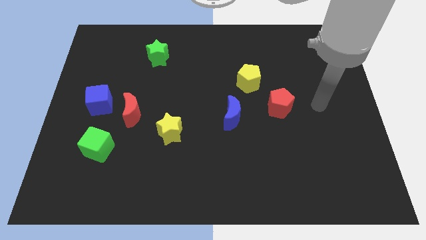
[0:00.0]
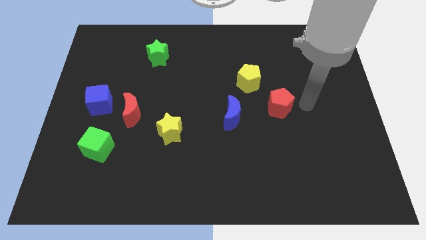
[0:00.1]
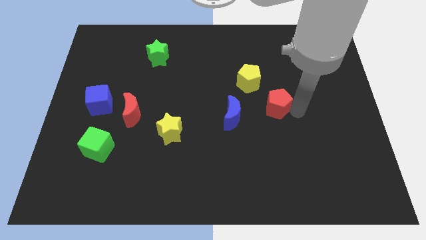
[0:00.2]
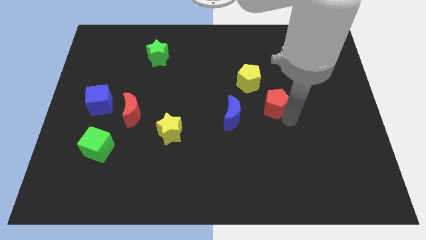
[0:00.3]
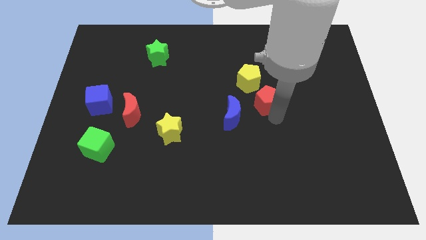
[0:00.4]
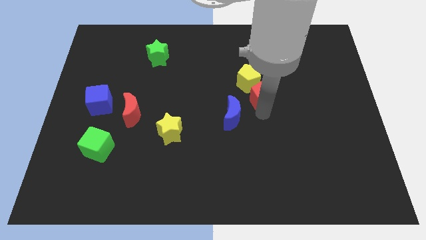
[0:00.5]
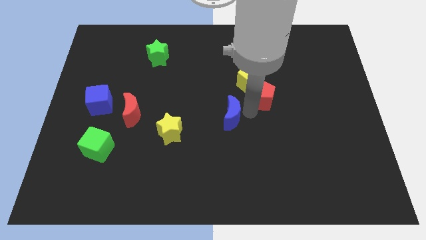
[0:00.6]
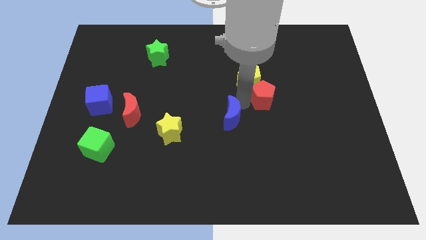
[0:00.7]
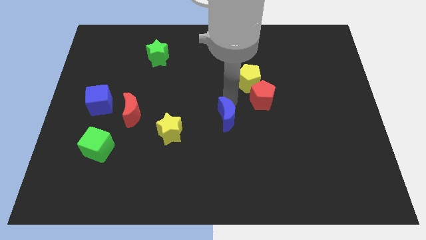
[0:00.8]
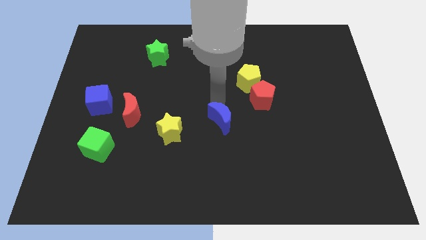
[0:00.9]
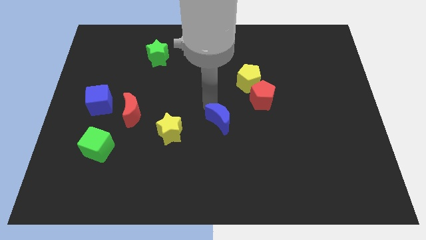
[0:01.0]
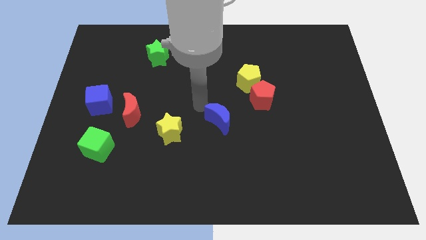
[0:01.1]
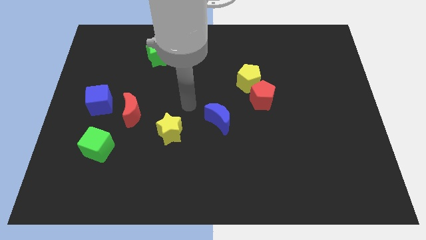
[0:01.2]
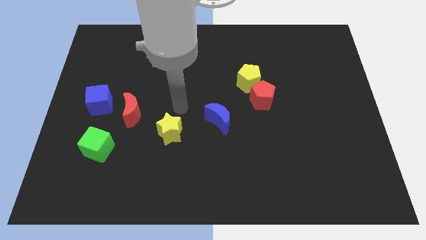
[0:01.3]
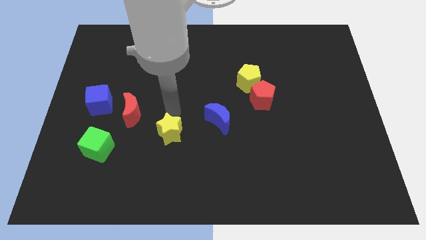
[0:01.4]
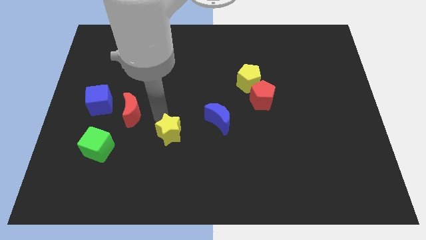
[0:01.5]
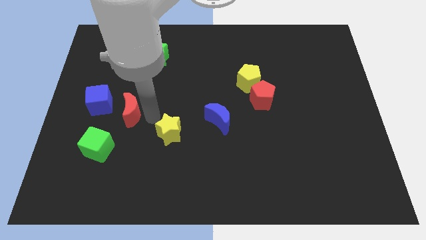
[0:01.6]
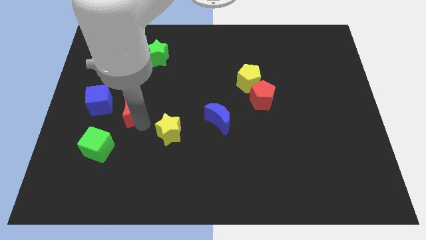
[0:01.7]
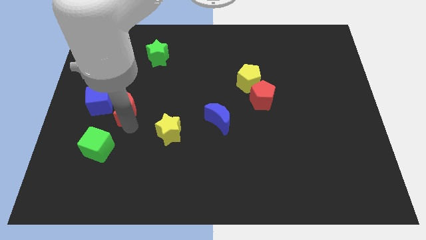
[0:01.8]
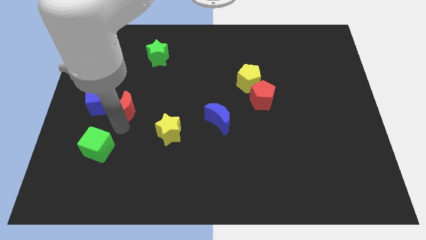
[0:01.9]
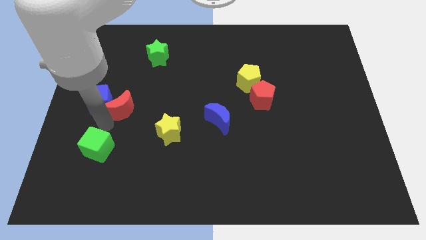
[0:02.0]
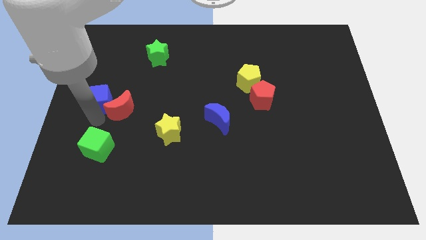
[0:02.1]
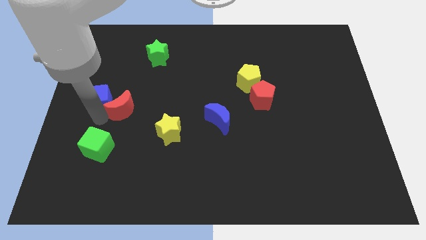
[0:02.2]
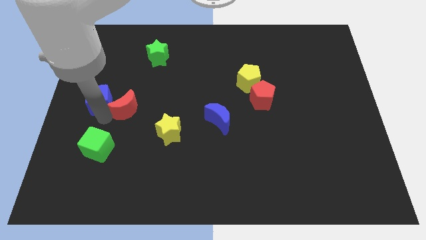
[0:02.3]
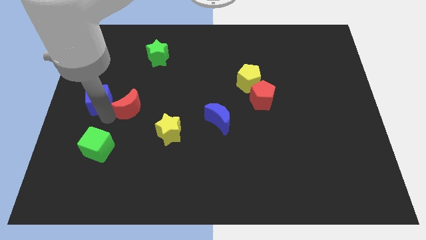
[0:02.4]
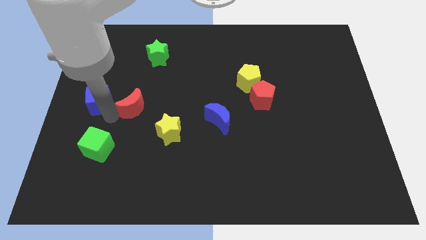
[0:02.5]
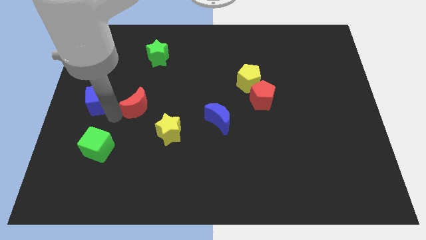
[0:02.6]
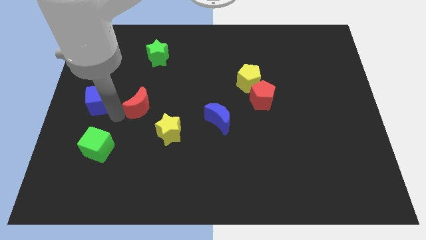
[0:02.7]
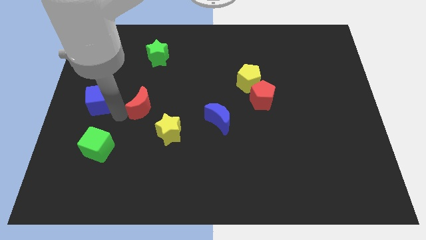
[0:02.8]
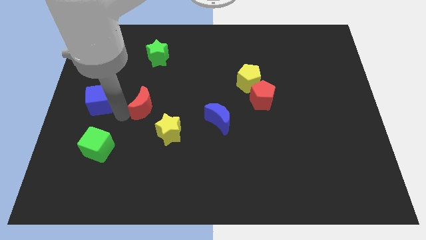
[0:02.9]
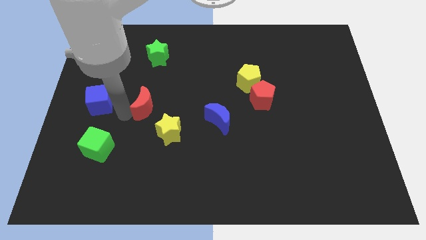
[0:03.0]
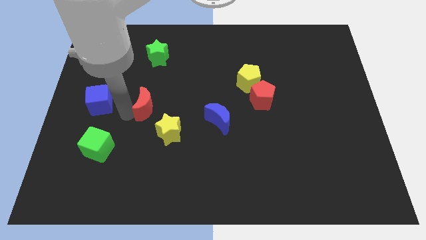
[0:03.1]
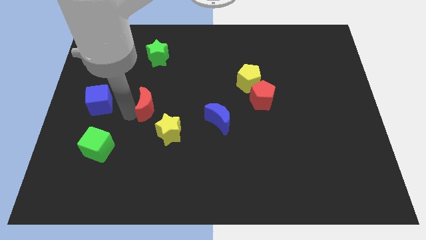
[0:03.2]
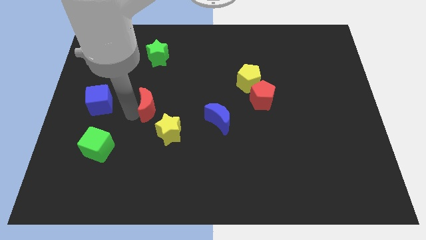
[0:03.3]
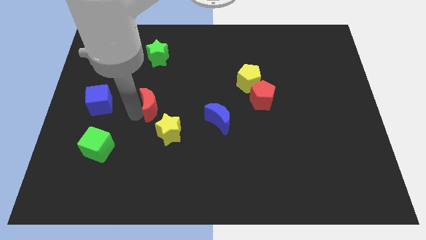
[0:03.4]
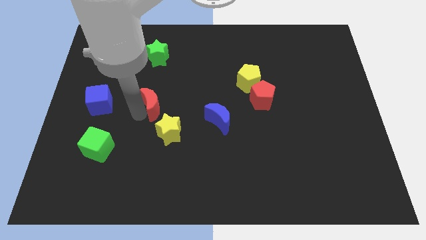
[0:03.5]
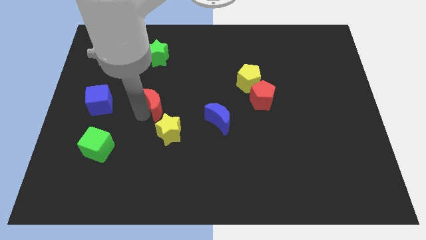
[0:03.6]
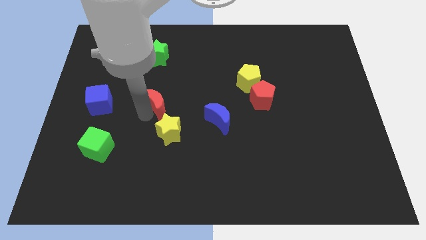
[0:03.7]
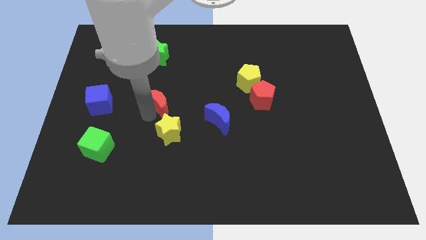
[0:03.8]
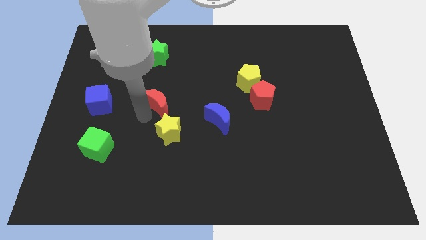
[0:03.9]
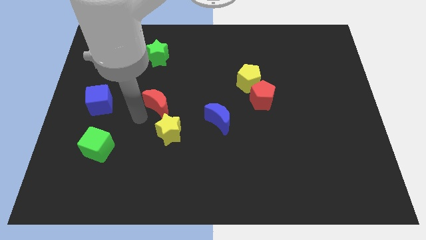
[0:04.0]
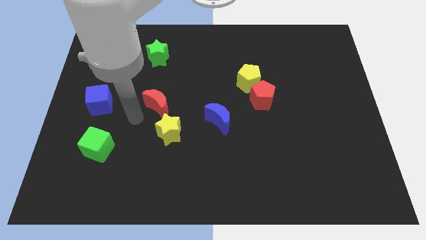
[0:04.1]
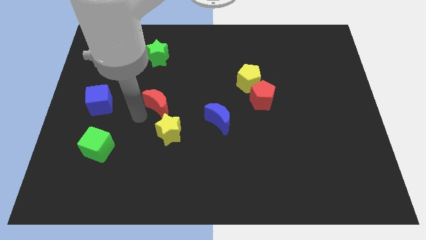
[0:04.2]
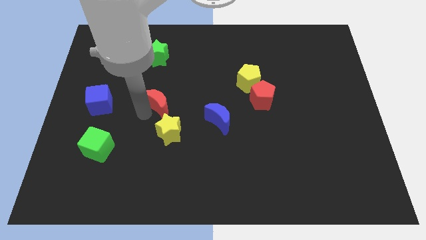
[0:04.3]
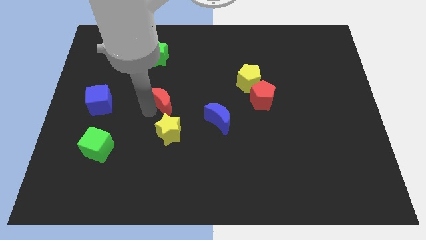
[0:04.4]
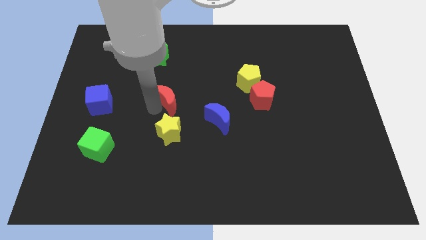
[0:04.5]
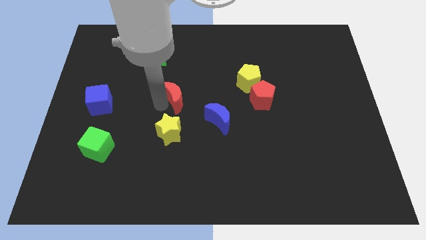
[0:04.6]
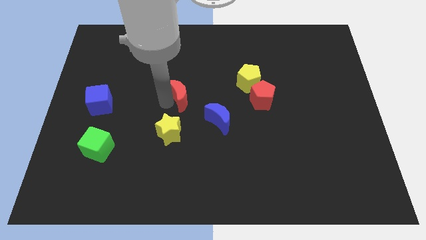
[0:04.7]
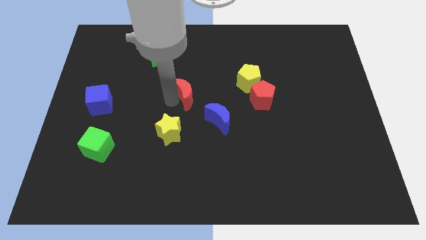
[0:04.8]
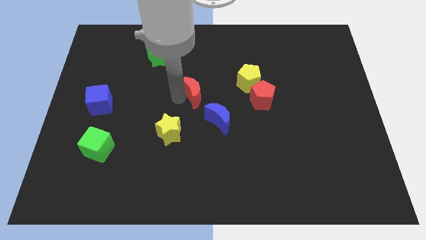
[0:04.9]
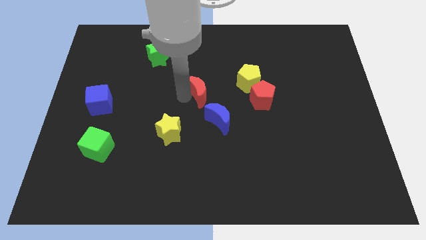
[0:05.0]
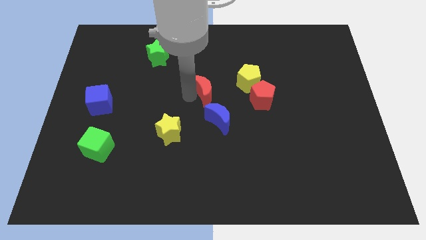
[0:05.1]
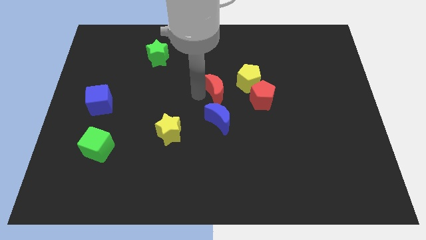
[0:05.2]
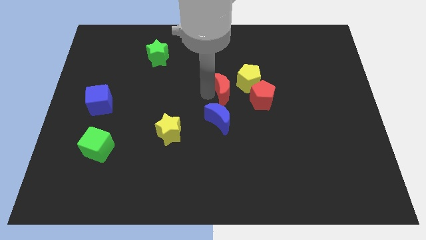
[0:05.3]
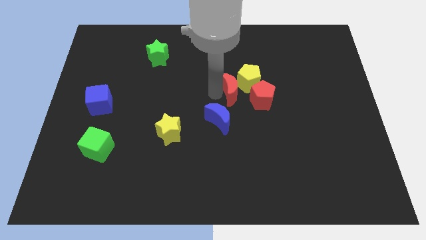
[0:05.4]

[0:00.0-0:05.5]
push the red moon towards the yellow pentagon

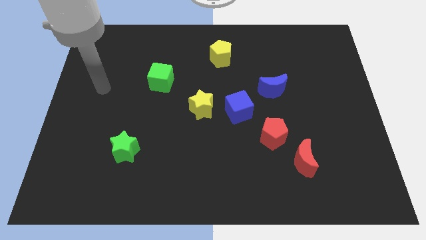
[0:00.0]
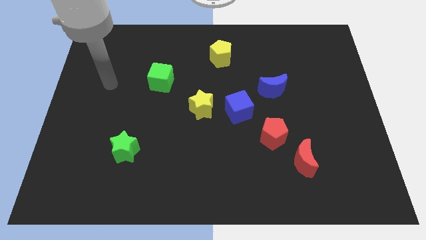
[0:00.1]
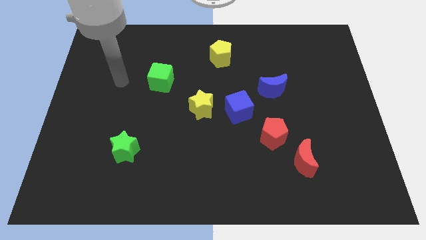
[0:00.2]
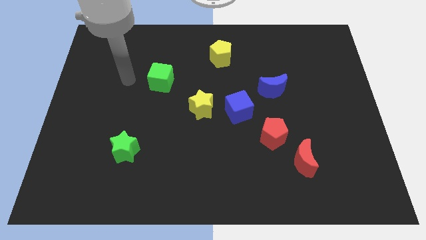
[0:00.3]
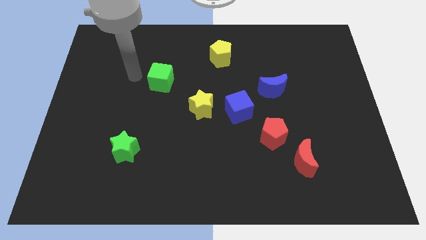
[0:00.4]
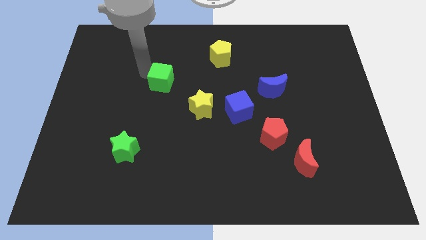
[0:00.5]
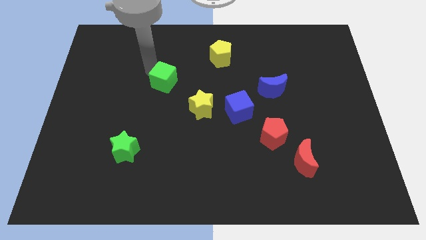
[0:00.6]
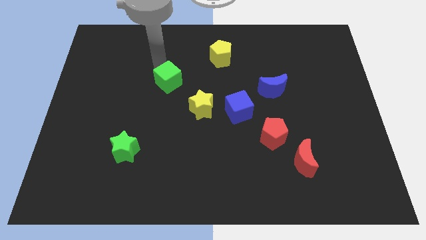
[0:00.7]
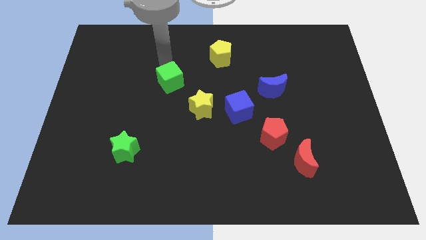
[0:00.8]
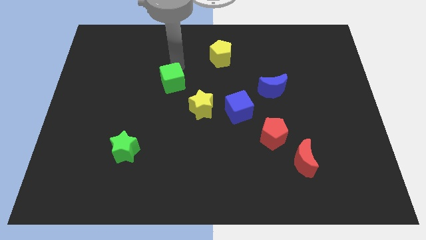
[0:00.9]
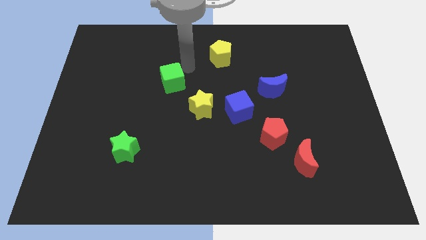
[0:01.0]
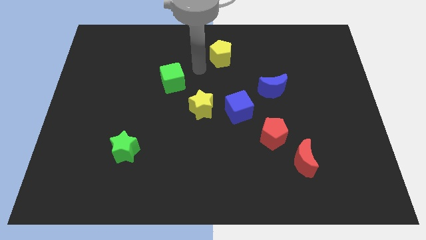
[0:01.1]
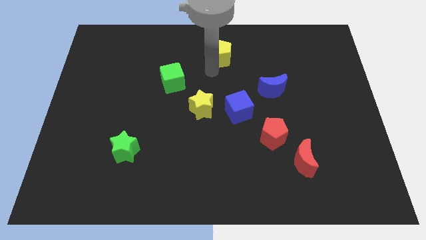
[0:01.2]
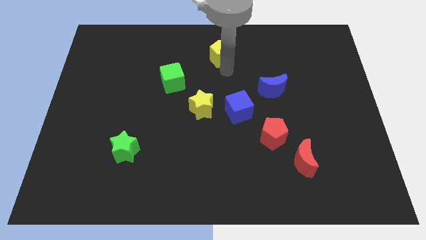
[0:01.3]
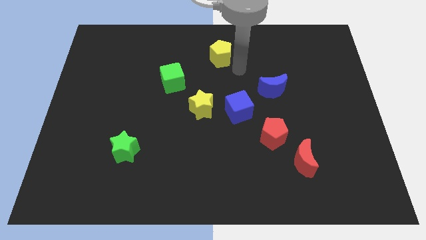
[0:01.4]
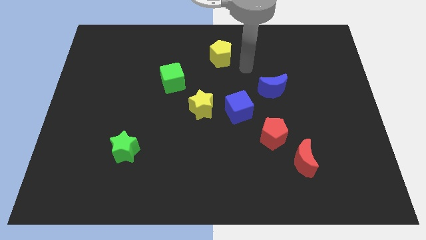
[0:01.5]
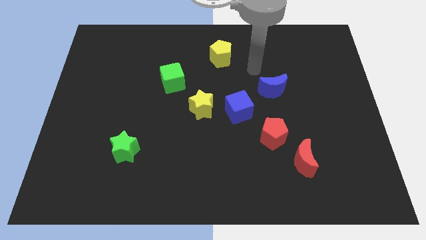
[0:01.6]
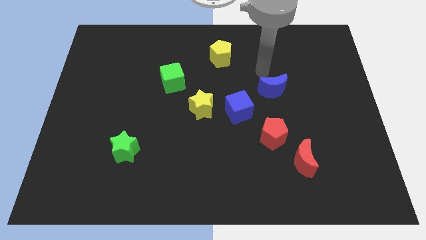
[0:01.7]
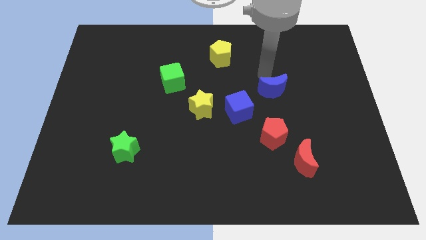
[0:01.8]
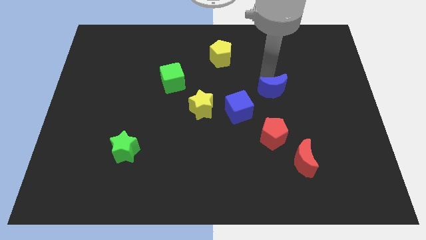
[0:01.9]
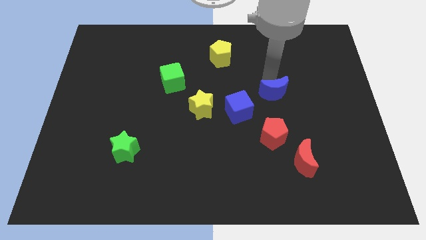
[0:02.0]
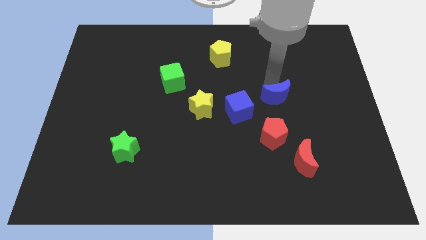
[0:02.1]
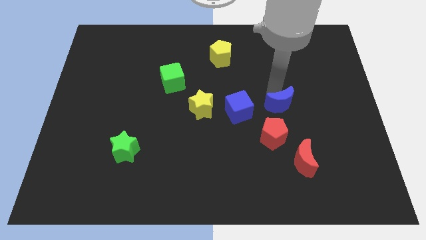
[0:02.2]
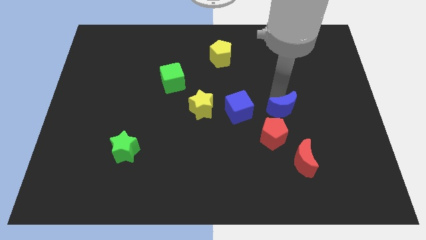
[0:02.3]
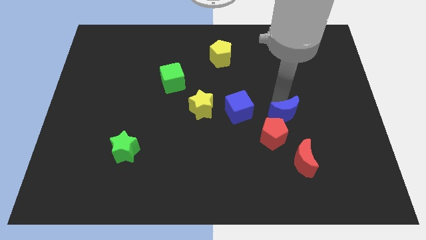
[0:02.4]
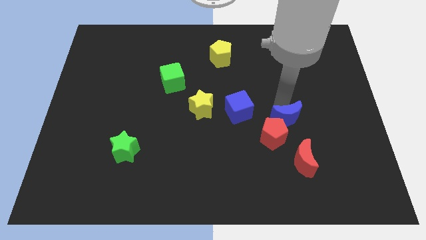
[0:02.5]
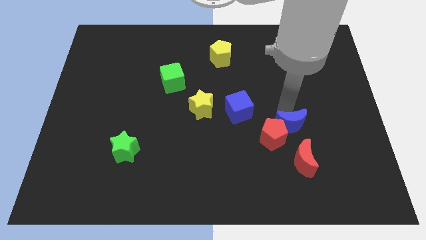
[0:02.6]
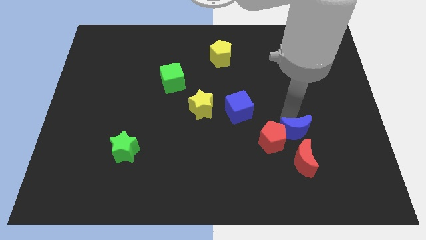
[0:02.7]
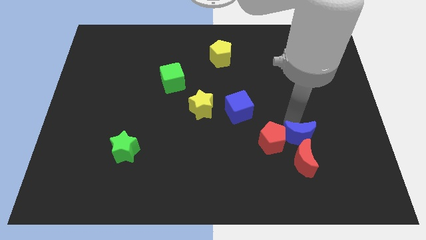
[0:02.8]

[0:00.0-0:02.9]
slide the blue moon next to the red moon
